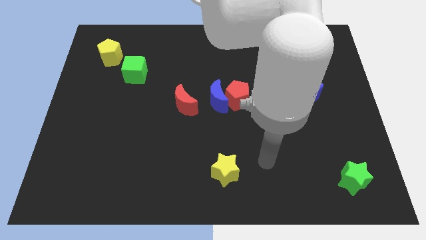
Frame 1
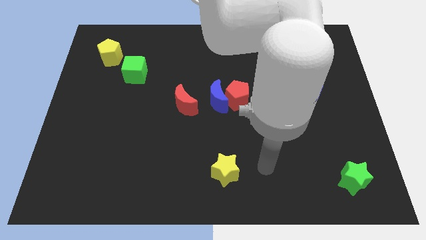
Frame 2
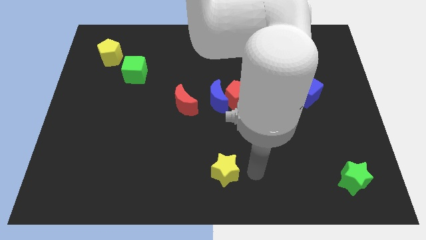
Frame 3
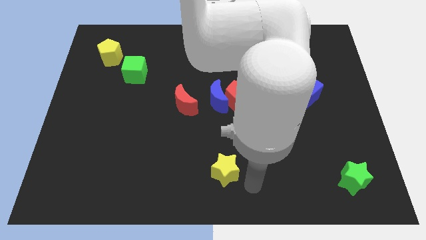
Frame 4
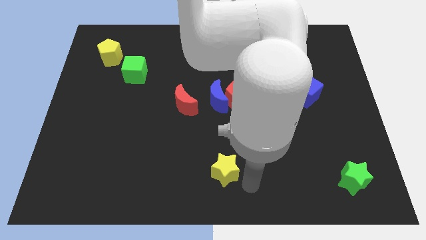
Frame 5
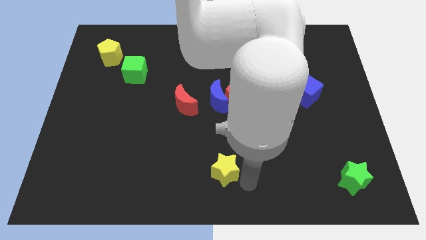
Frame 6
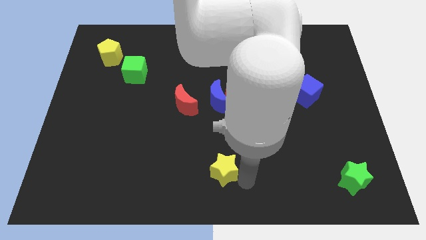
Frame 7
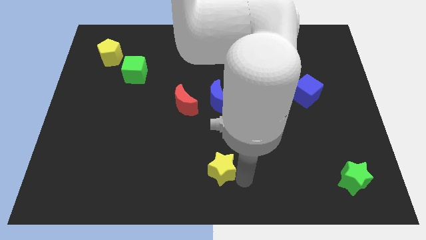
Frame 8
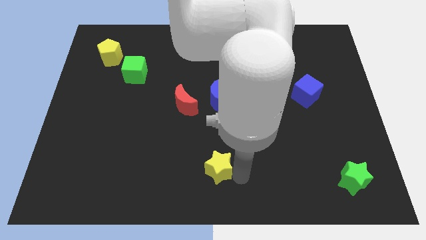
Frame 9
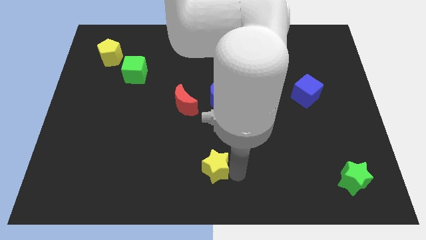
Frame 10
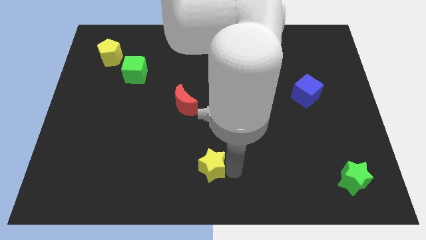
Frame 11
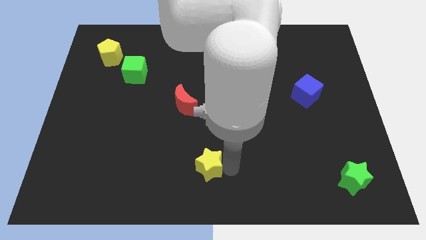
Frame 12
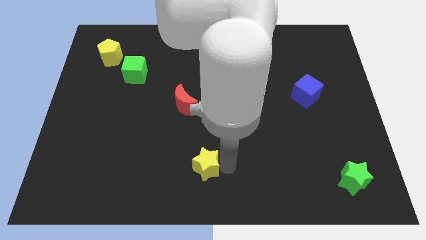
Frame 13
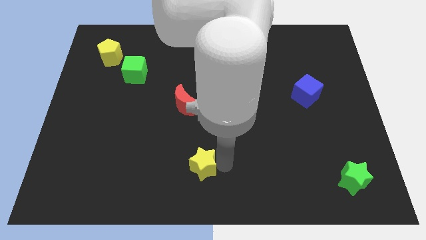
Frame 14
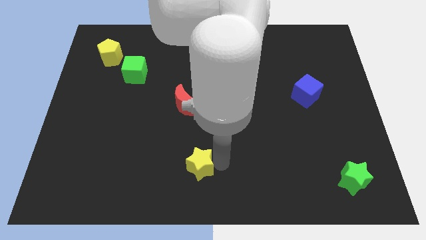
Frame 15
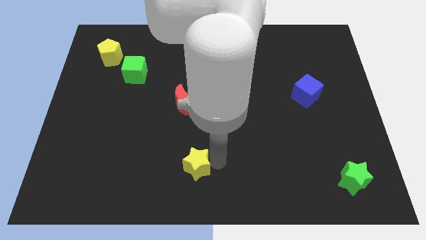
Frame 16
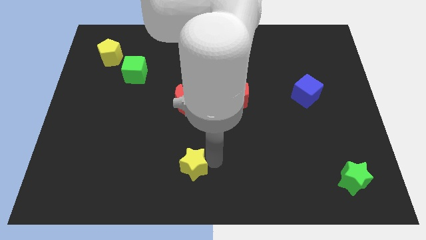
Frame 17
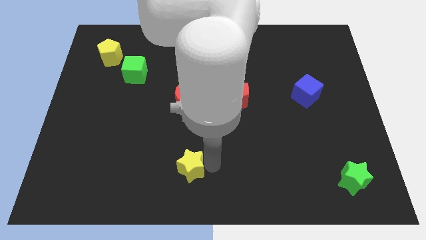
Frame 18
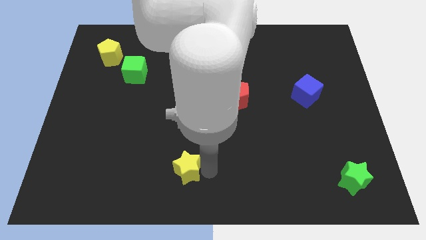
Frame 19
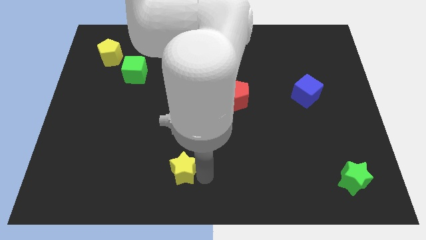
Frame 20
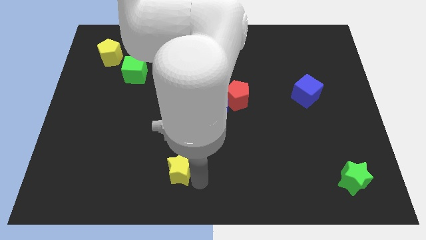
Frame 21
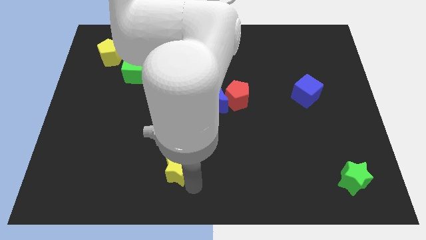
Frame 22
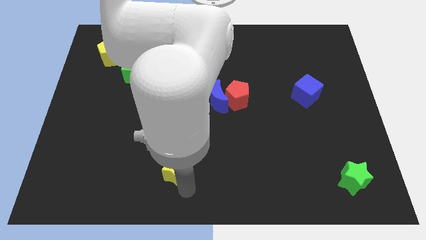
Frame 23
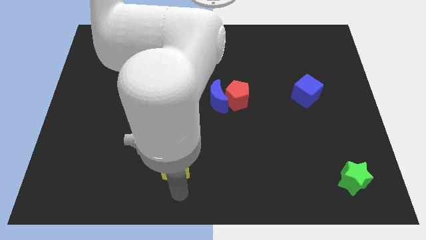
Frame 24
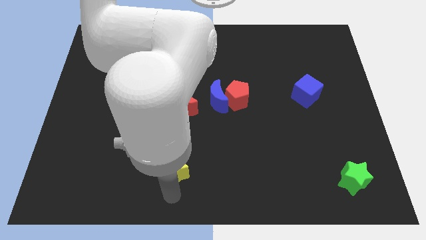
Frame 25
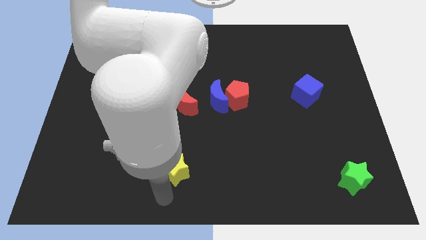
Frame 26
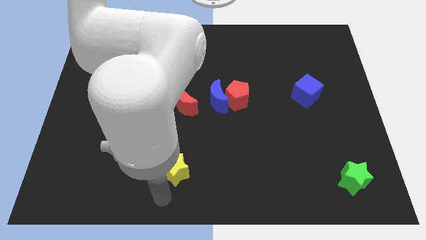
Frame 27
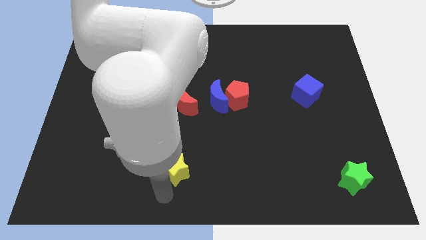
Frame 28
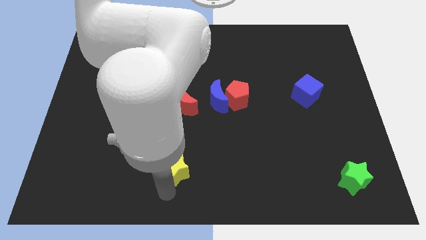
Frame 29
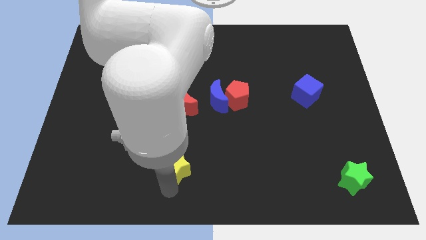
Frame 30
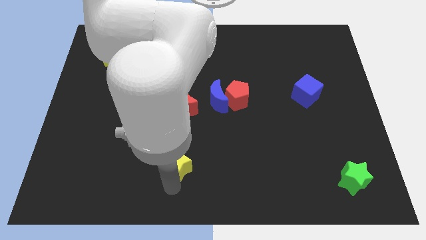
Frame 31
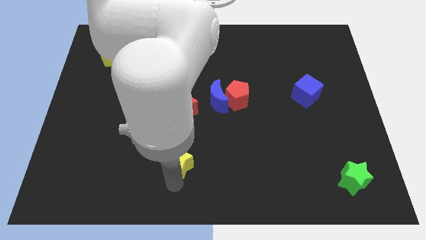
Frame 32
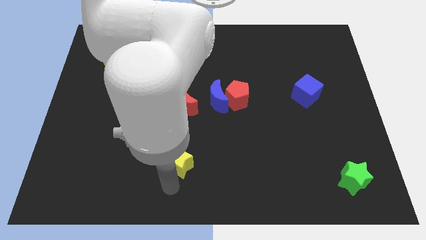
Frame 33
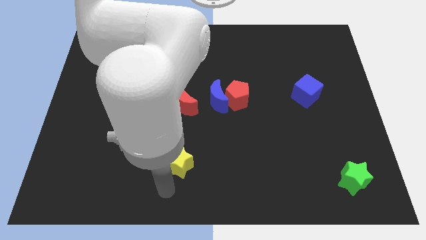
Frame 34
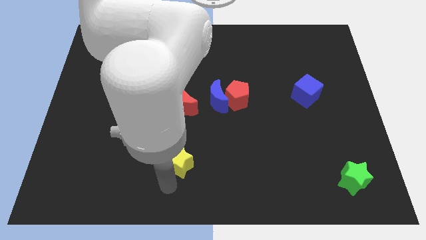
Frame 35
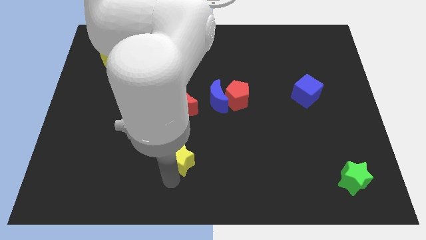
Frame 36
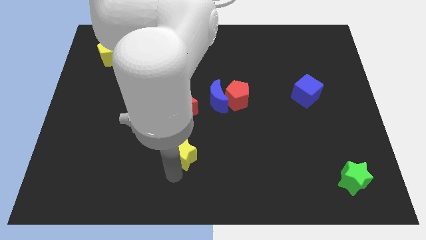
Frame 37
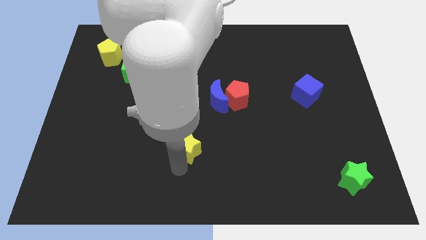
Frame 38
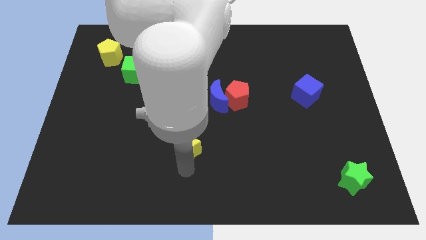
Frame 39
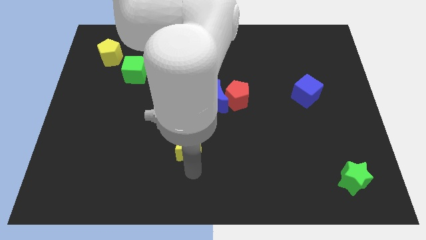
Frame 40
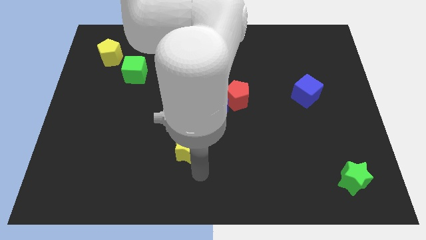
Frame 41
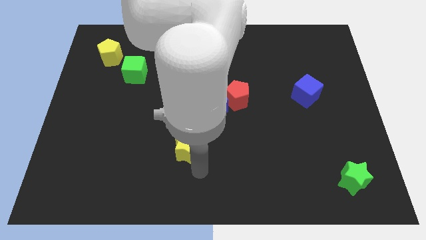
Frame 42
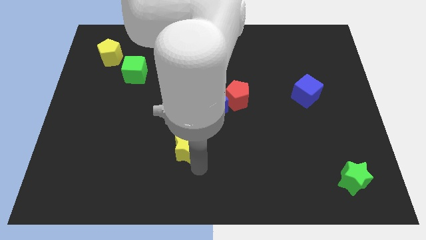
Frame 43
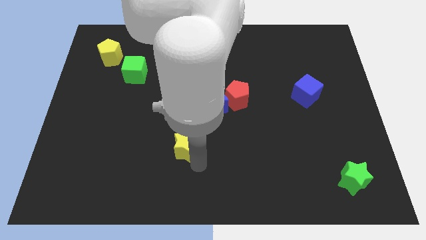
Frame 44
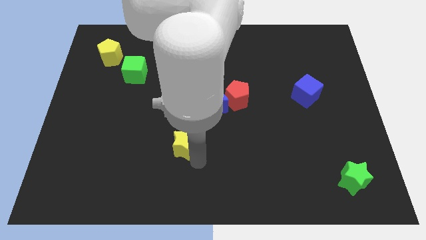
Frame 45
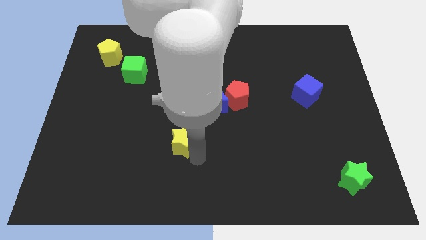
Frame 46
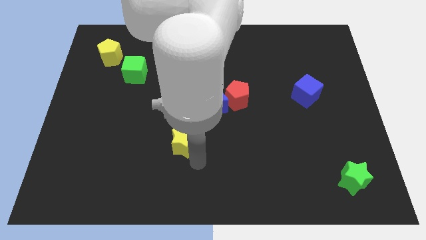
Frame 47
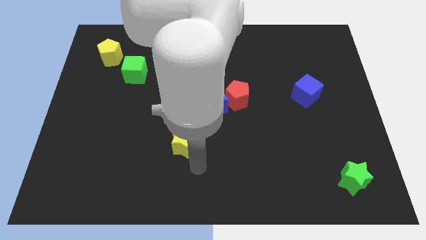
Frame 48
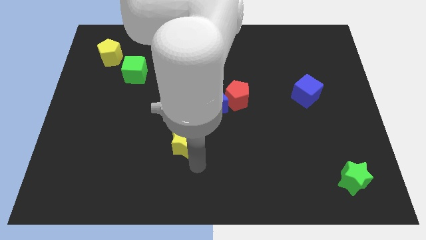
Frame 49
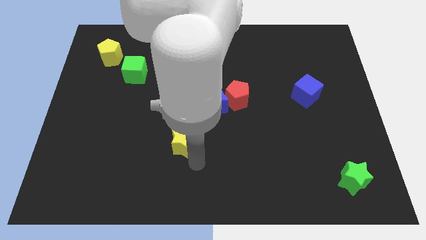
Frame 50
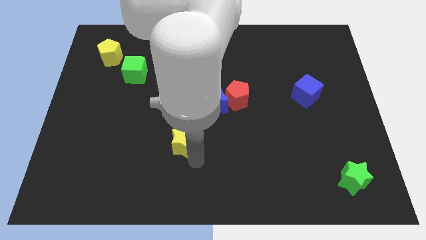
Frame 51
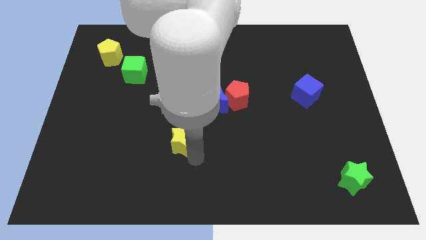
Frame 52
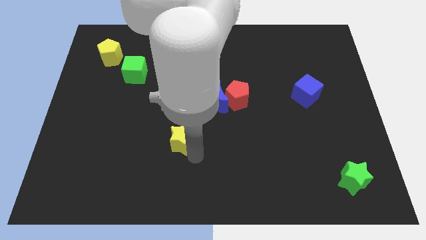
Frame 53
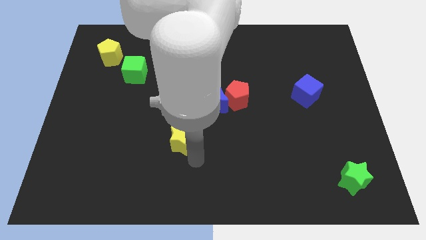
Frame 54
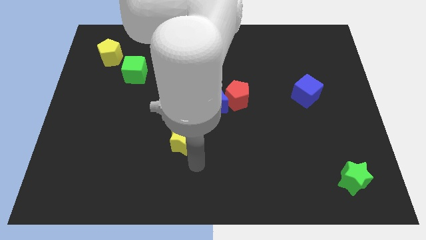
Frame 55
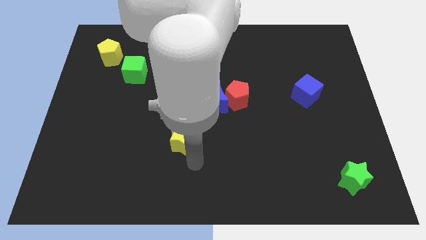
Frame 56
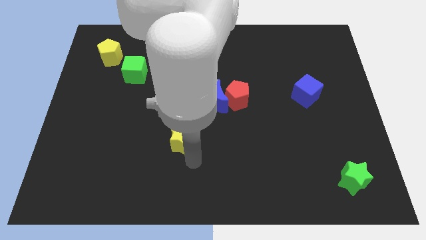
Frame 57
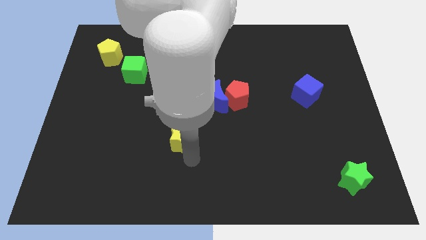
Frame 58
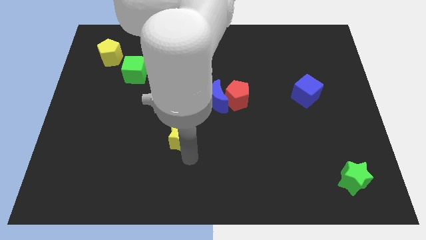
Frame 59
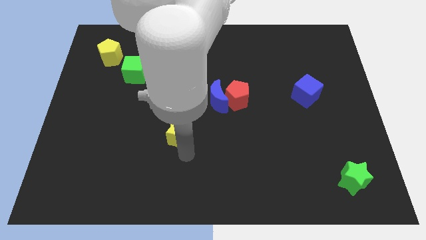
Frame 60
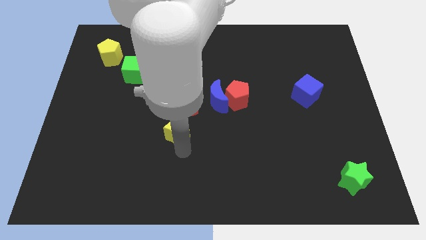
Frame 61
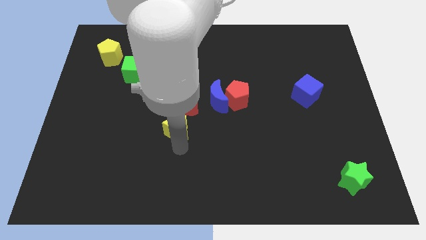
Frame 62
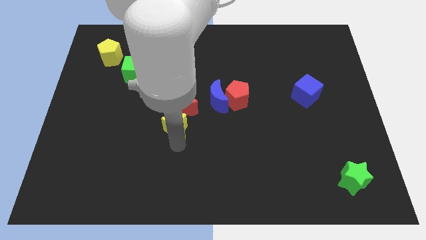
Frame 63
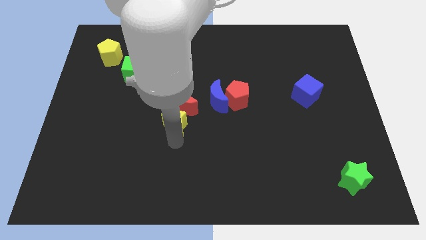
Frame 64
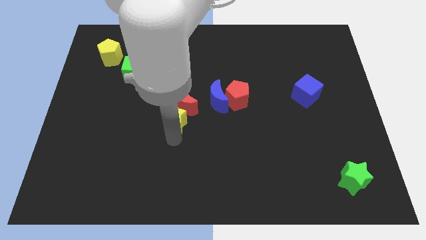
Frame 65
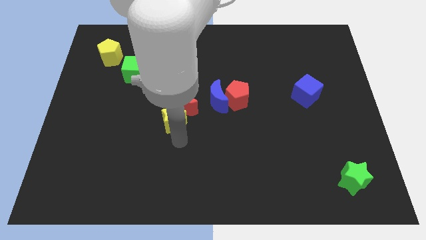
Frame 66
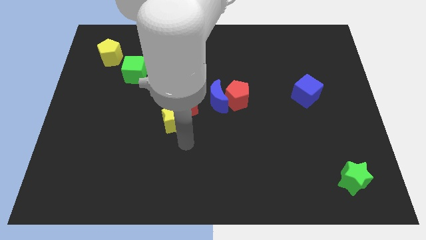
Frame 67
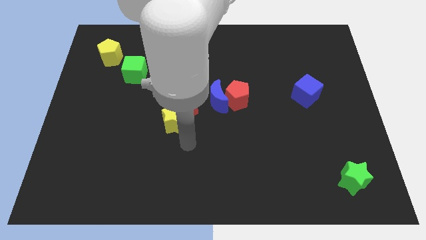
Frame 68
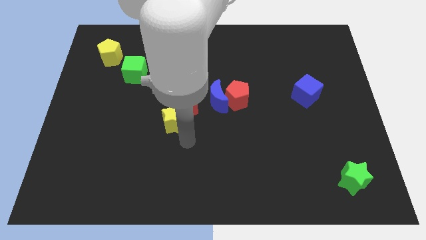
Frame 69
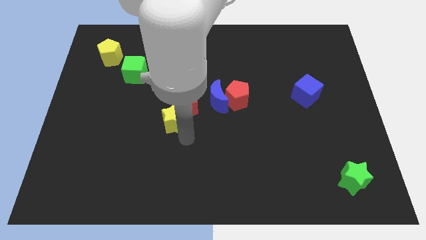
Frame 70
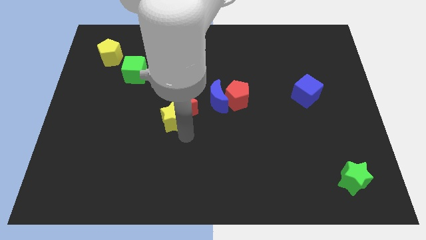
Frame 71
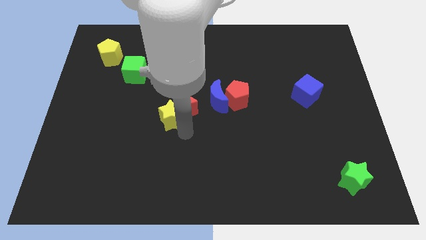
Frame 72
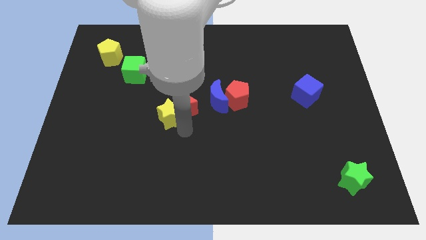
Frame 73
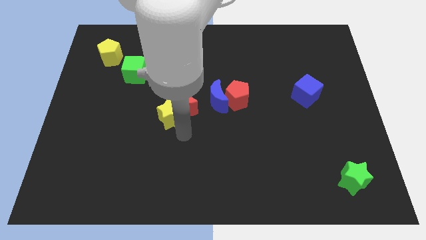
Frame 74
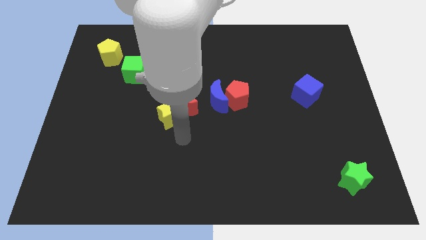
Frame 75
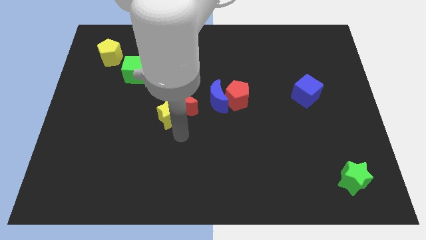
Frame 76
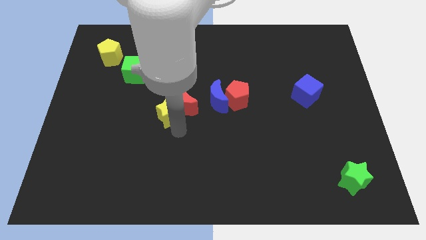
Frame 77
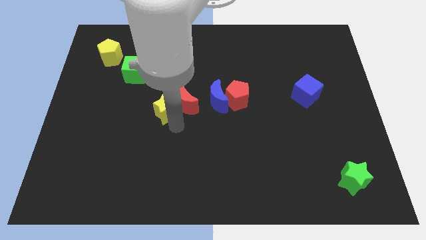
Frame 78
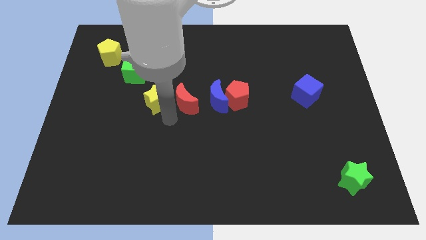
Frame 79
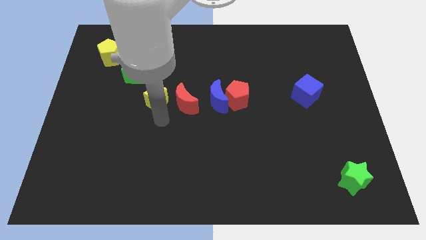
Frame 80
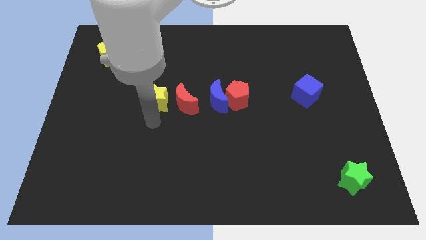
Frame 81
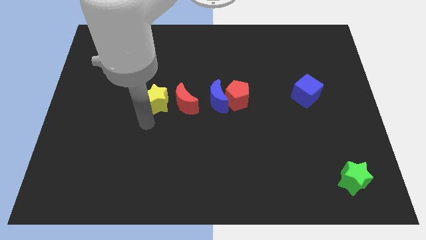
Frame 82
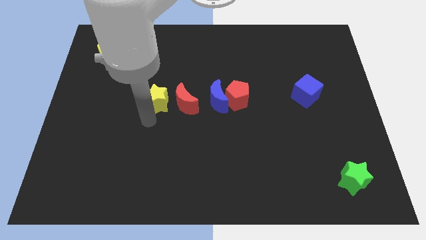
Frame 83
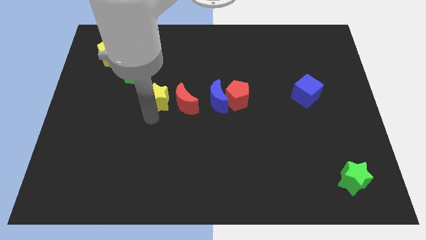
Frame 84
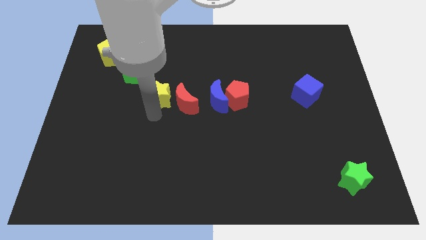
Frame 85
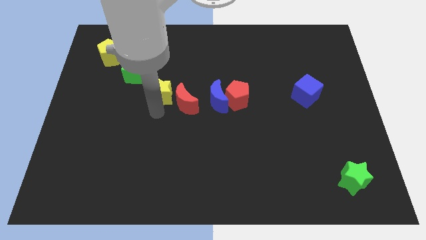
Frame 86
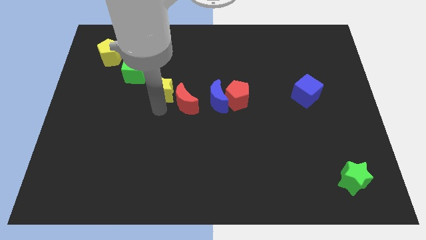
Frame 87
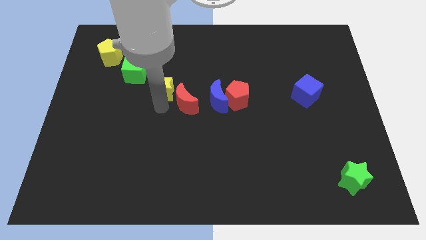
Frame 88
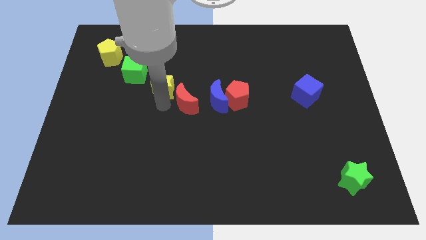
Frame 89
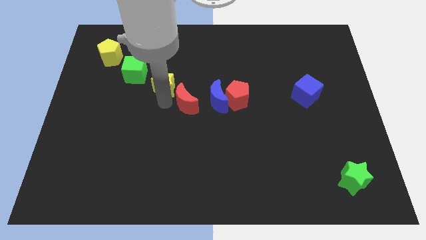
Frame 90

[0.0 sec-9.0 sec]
move the yellow star to the right of the green cube
